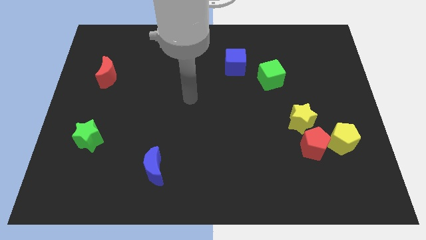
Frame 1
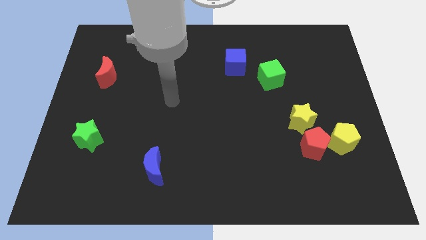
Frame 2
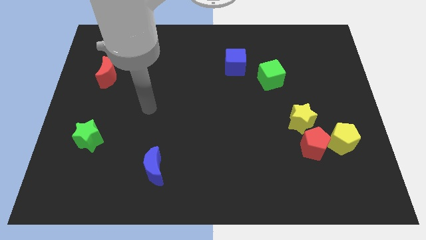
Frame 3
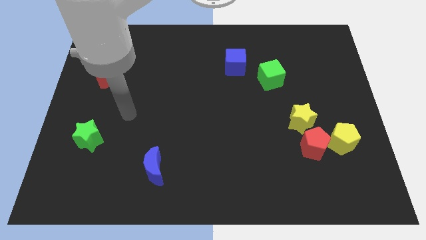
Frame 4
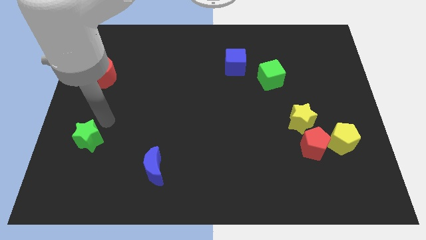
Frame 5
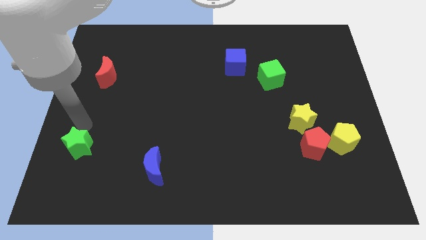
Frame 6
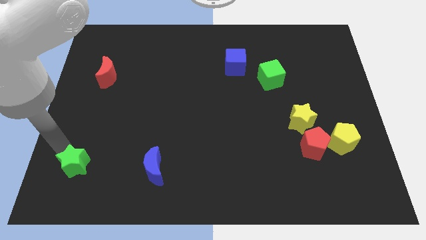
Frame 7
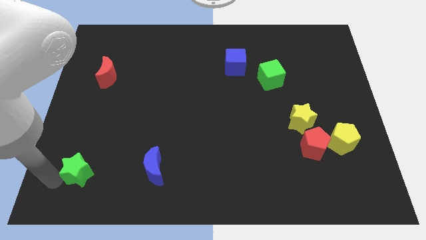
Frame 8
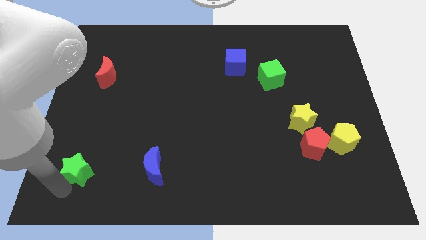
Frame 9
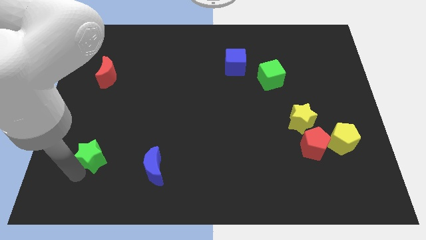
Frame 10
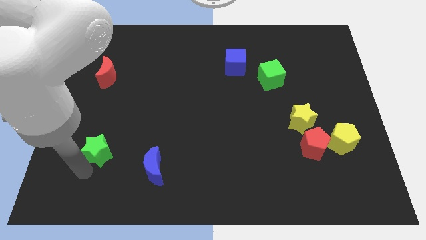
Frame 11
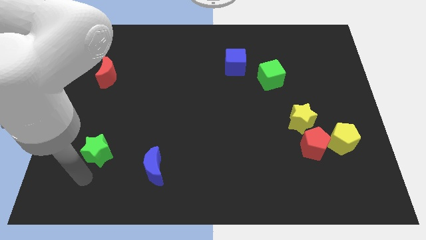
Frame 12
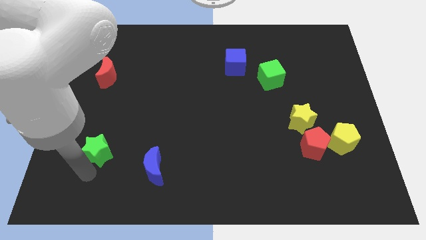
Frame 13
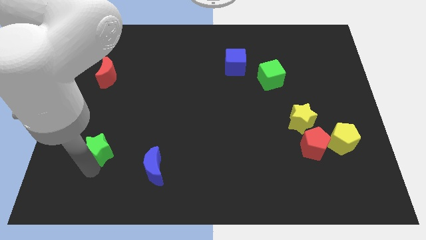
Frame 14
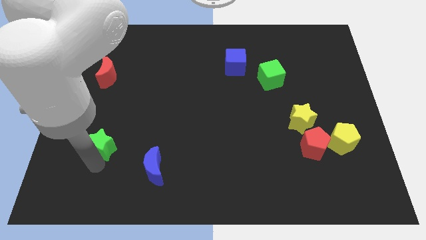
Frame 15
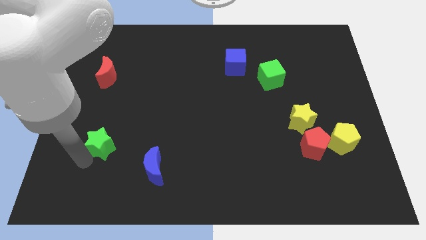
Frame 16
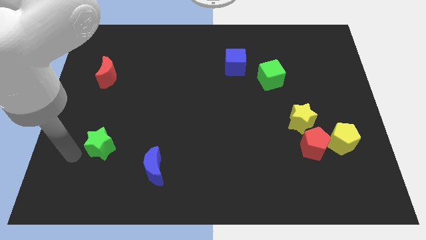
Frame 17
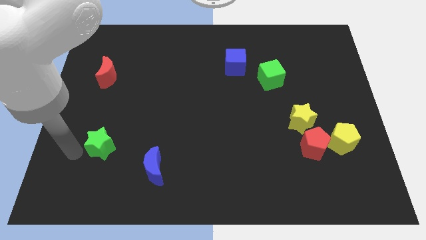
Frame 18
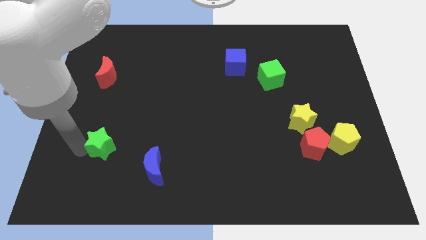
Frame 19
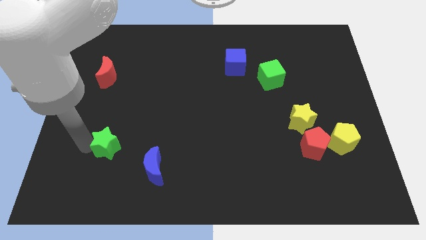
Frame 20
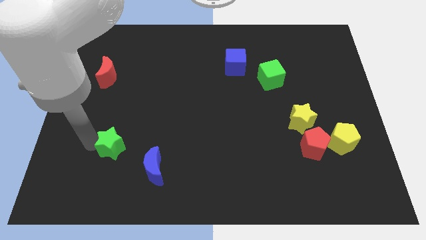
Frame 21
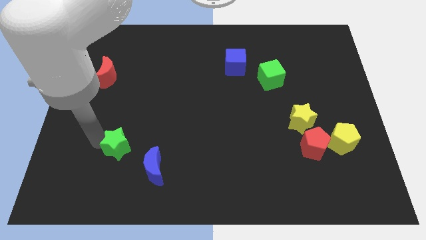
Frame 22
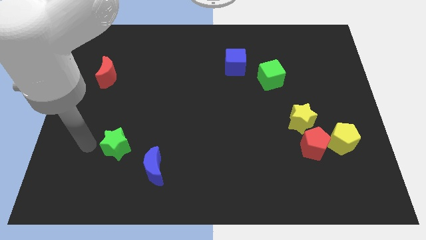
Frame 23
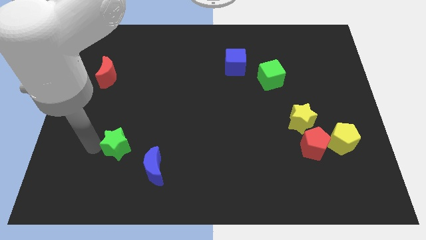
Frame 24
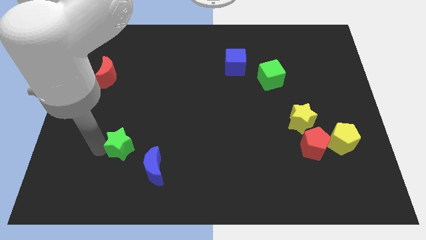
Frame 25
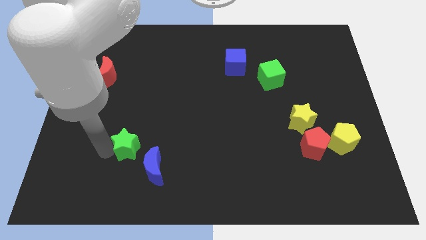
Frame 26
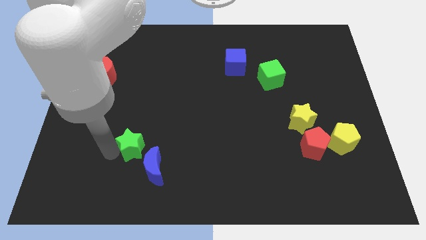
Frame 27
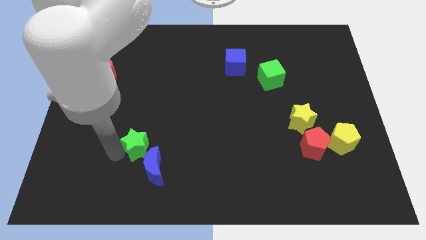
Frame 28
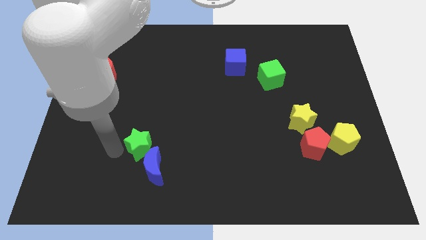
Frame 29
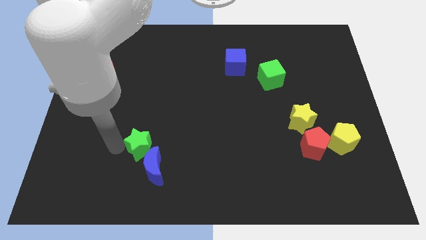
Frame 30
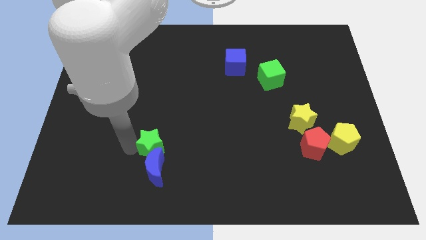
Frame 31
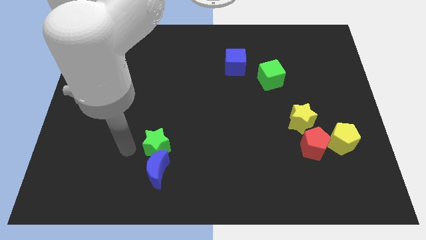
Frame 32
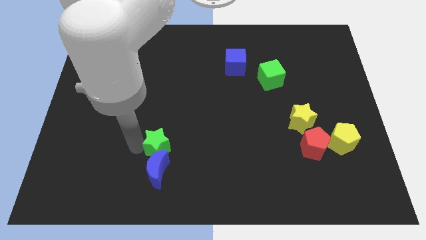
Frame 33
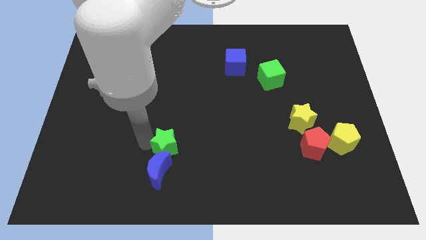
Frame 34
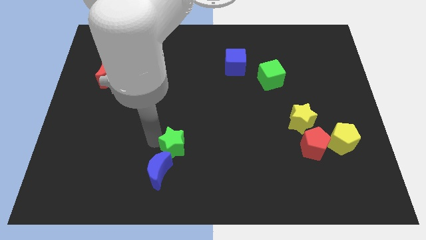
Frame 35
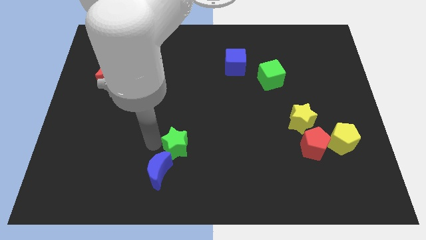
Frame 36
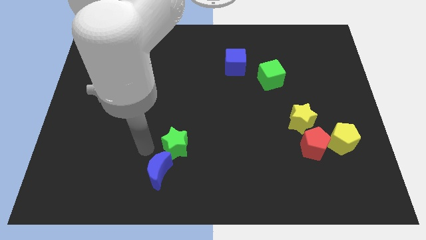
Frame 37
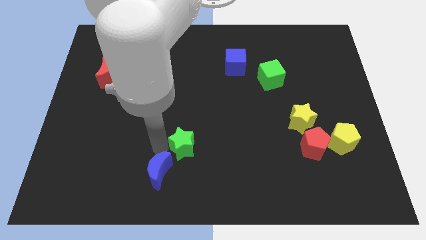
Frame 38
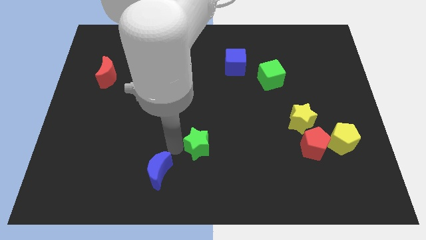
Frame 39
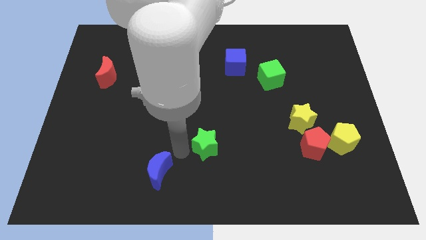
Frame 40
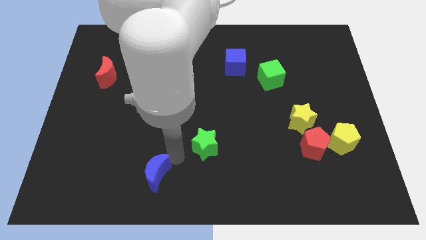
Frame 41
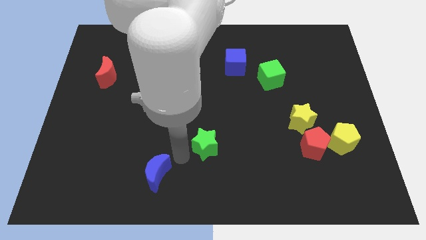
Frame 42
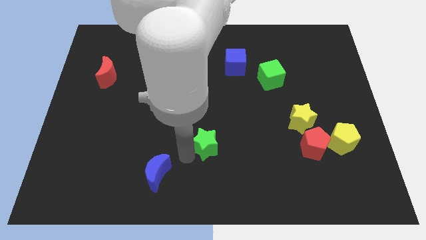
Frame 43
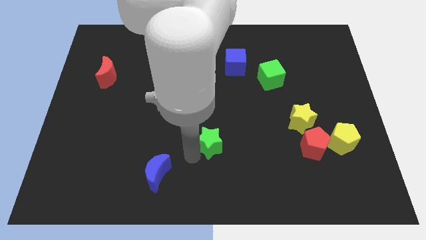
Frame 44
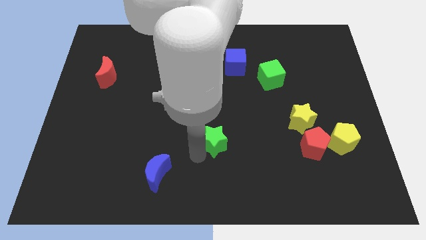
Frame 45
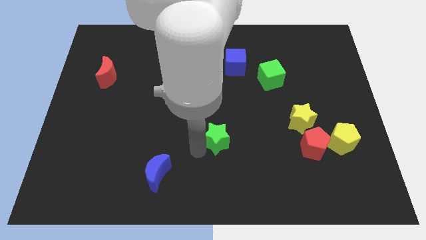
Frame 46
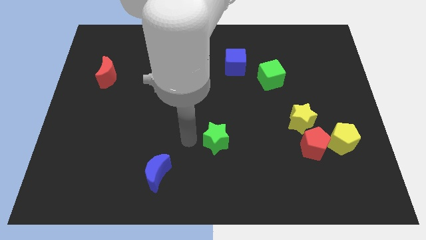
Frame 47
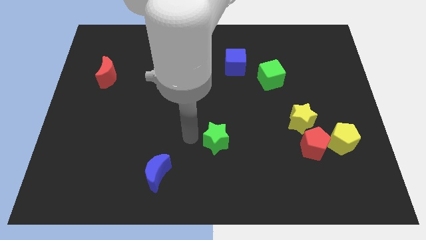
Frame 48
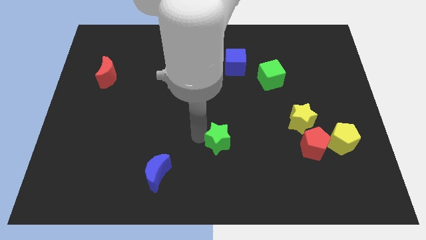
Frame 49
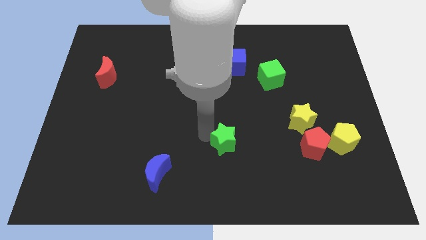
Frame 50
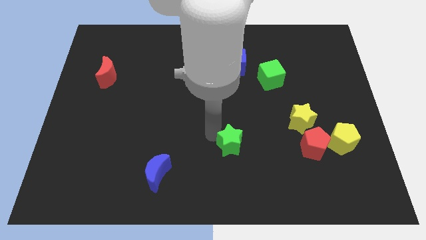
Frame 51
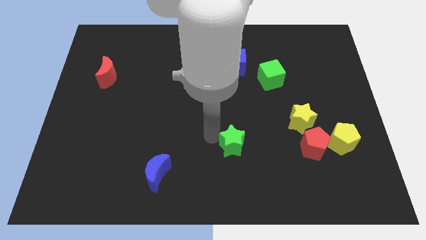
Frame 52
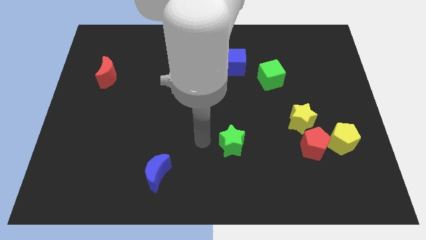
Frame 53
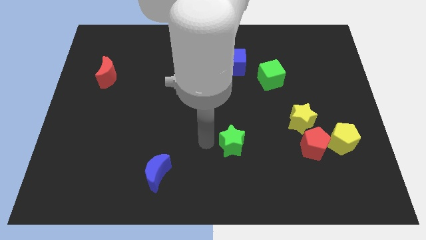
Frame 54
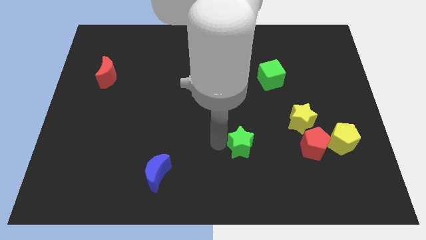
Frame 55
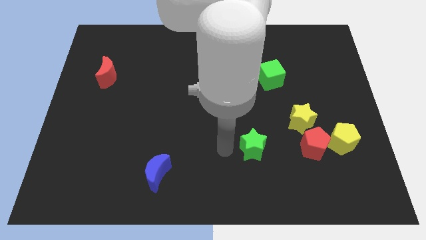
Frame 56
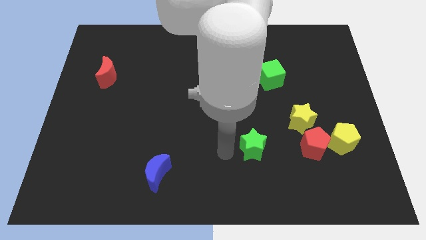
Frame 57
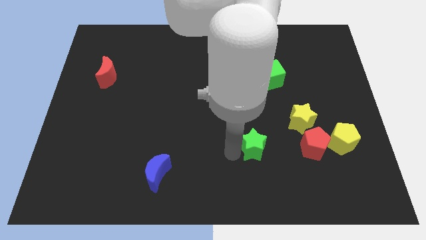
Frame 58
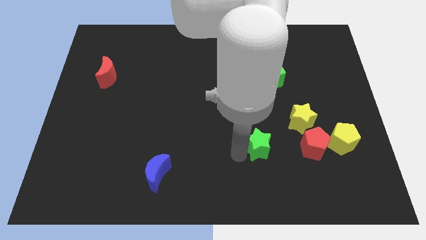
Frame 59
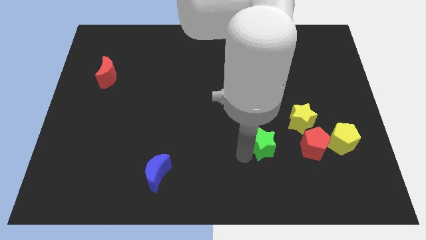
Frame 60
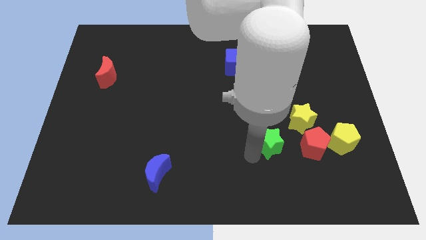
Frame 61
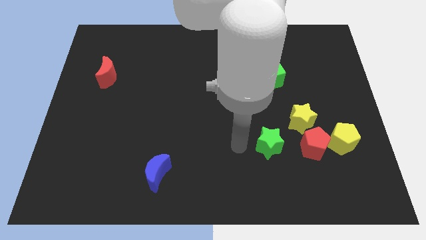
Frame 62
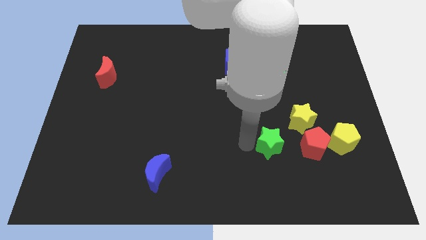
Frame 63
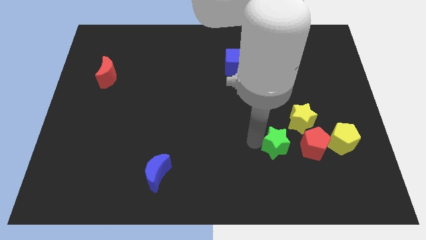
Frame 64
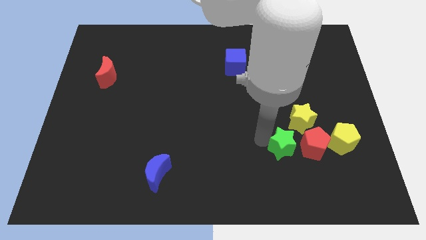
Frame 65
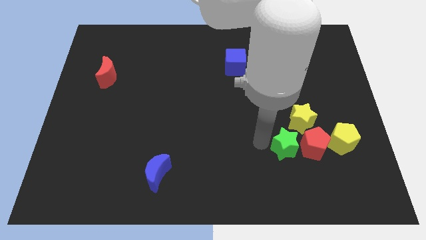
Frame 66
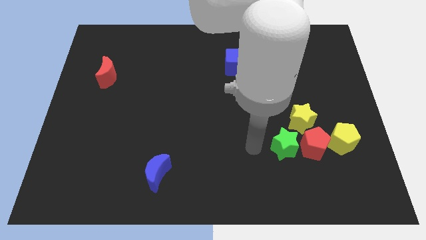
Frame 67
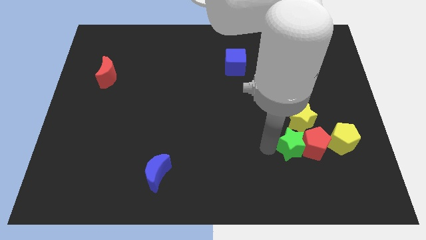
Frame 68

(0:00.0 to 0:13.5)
slide the green star next to the red pentagon
